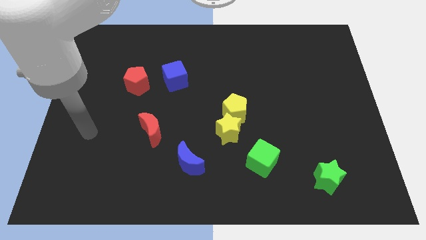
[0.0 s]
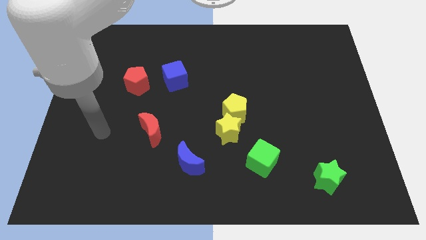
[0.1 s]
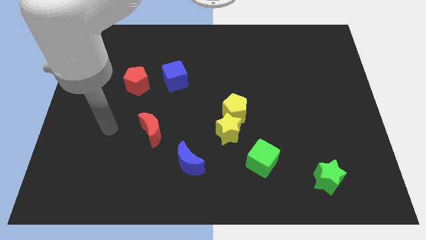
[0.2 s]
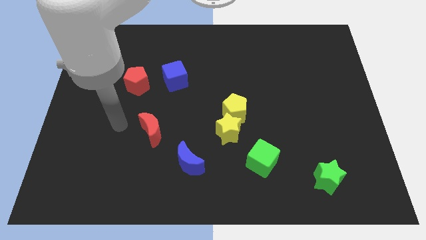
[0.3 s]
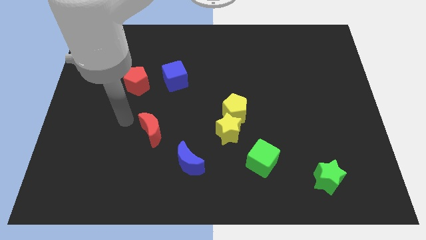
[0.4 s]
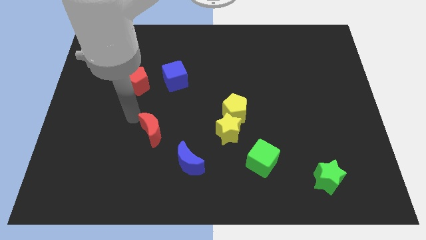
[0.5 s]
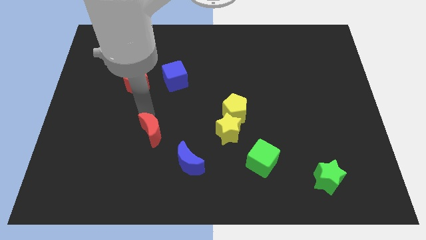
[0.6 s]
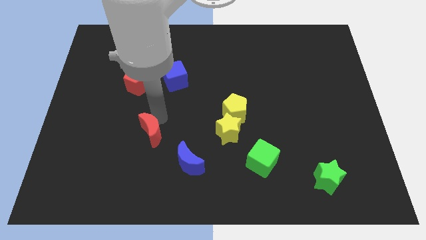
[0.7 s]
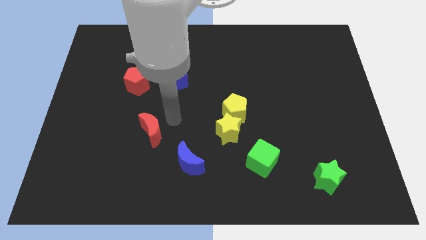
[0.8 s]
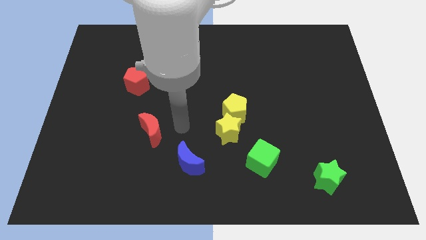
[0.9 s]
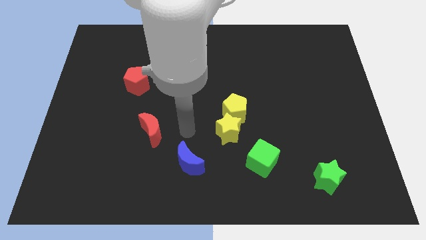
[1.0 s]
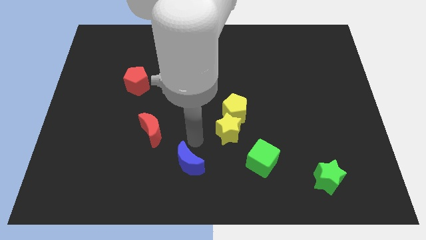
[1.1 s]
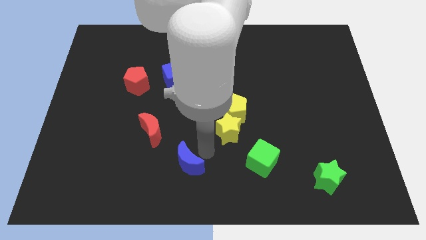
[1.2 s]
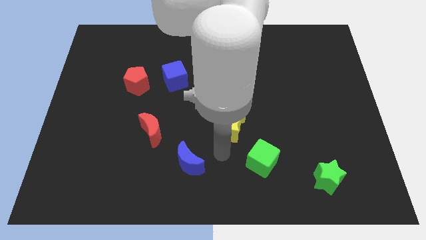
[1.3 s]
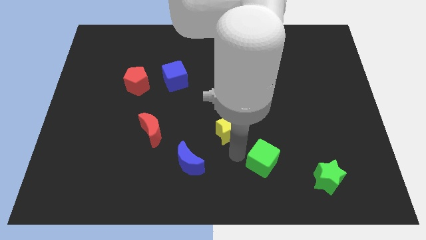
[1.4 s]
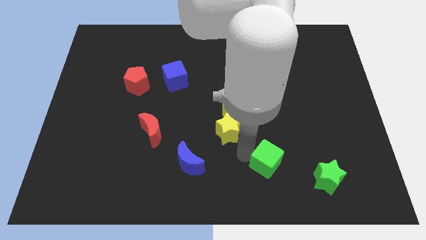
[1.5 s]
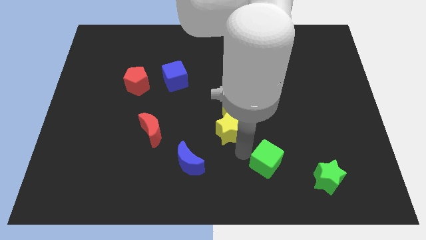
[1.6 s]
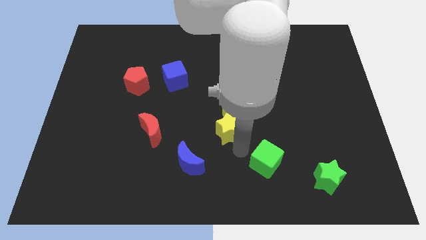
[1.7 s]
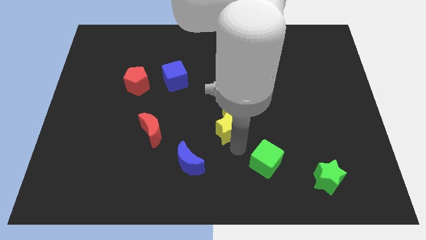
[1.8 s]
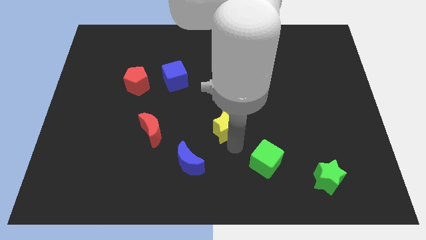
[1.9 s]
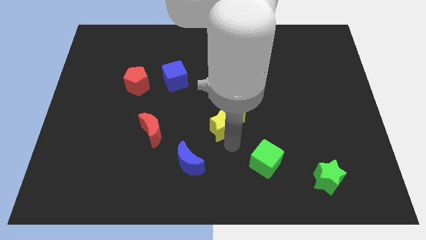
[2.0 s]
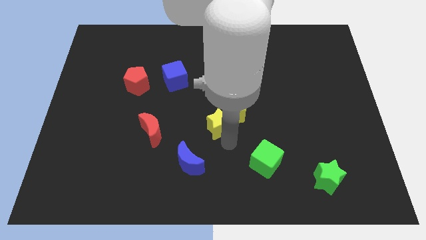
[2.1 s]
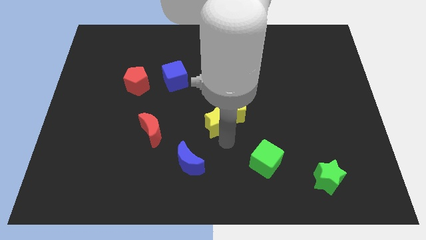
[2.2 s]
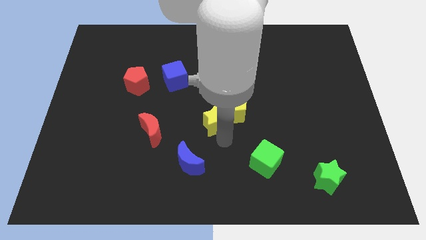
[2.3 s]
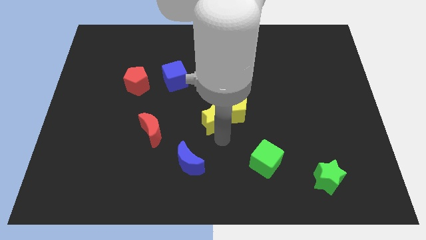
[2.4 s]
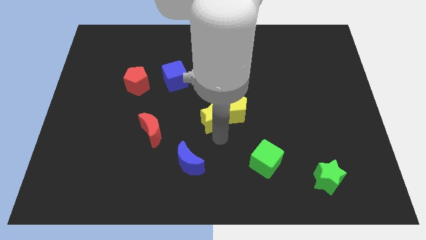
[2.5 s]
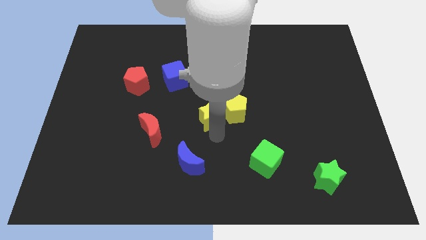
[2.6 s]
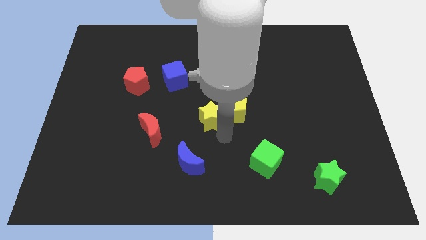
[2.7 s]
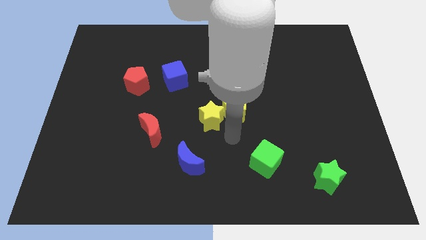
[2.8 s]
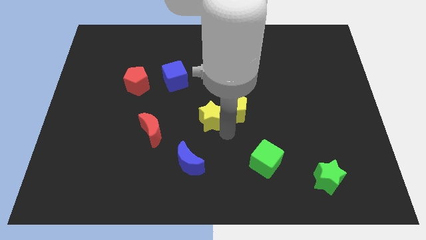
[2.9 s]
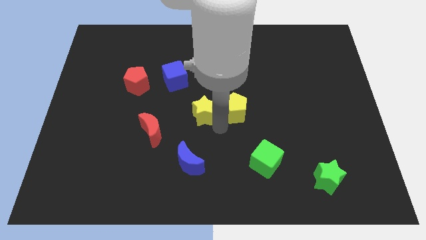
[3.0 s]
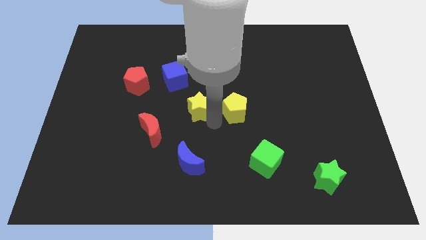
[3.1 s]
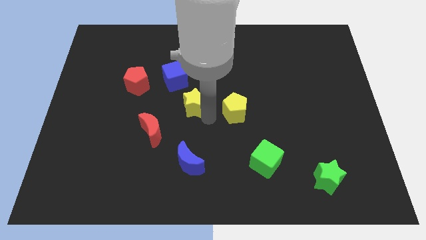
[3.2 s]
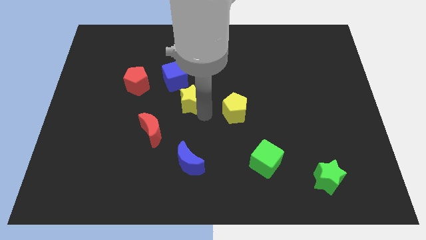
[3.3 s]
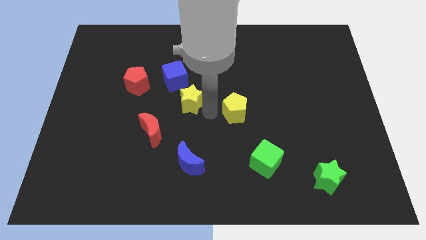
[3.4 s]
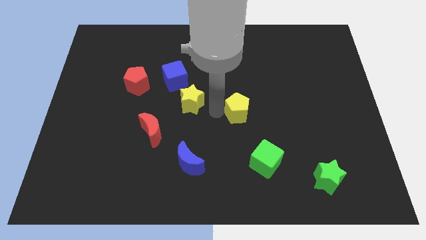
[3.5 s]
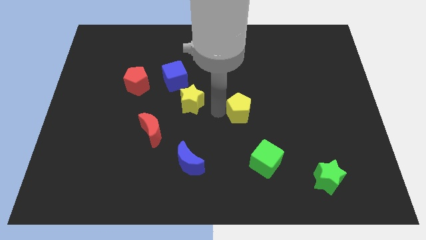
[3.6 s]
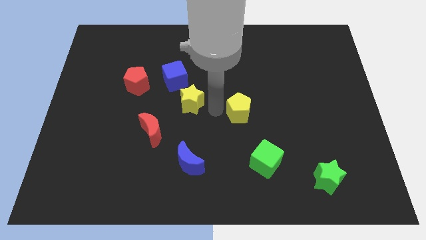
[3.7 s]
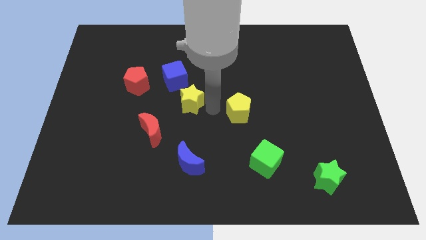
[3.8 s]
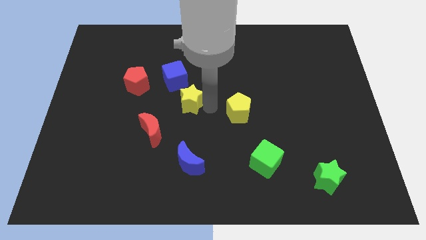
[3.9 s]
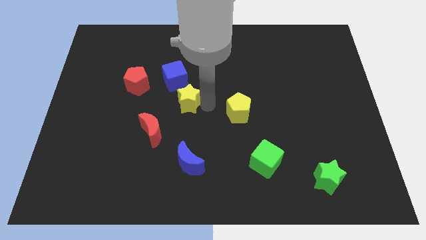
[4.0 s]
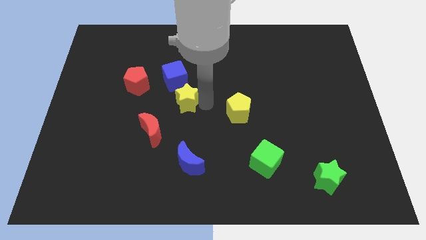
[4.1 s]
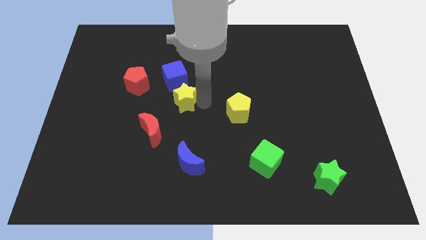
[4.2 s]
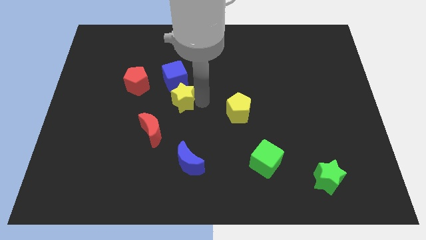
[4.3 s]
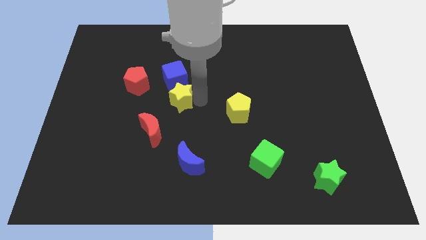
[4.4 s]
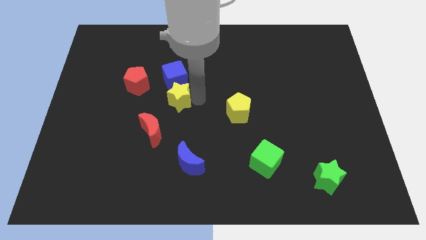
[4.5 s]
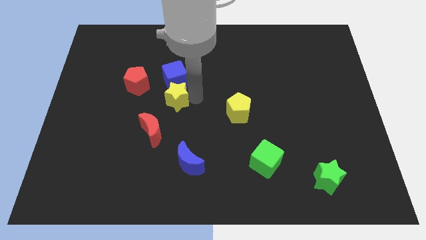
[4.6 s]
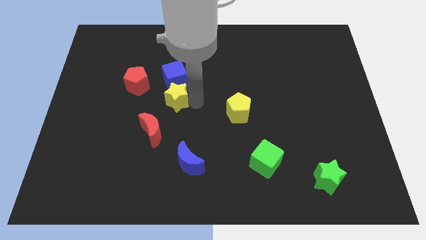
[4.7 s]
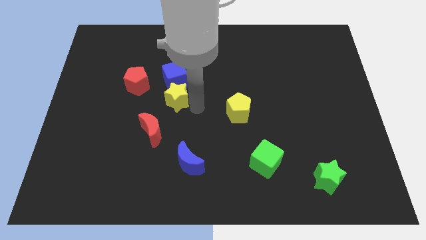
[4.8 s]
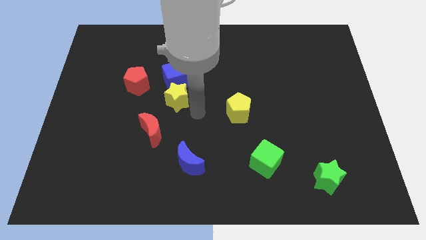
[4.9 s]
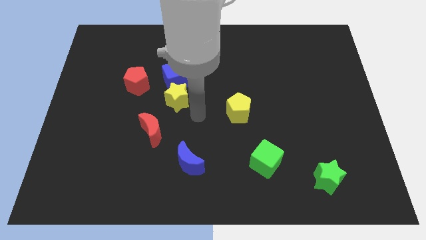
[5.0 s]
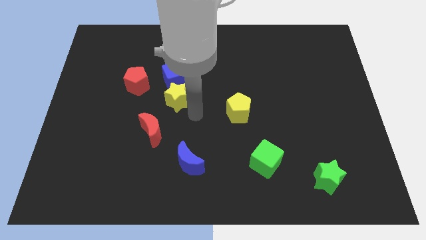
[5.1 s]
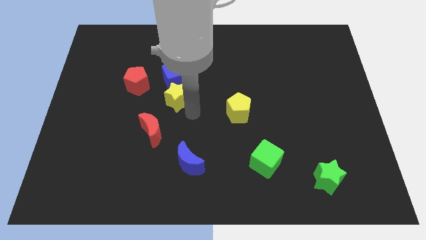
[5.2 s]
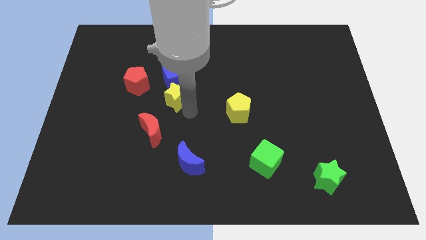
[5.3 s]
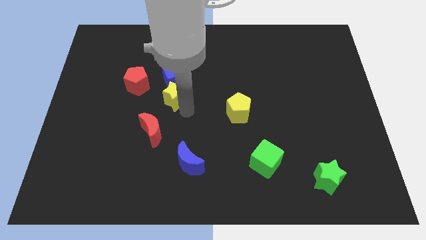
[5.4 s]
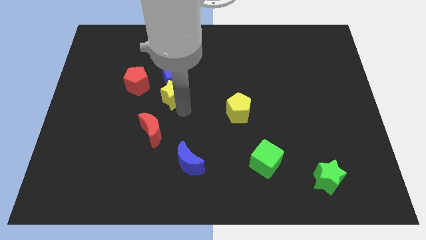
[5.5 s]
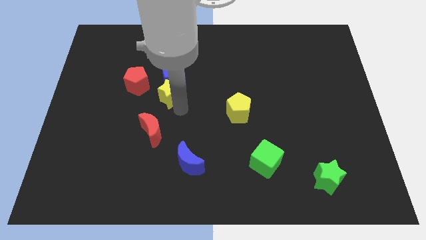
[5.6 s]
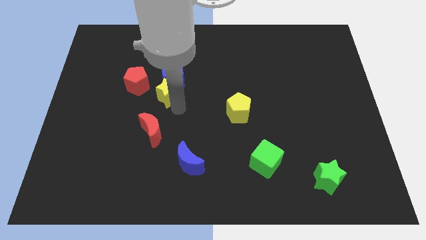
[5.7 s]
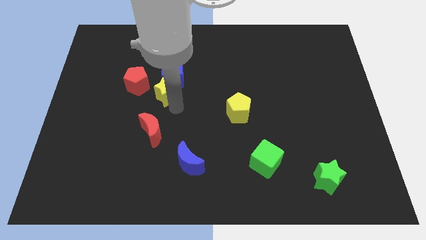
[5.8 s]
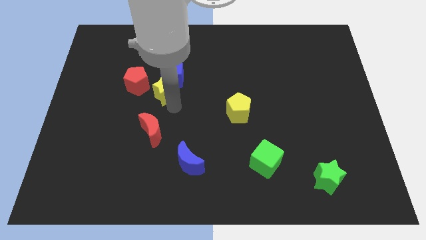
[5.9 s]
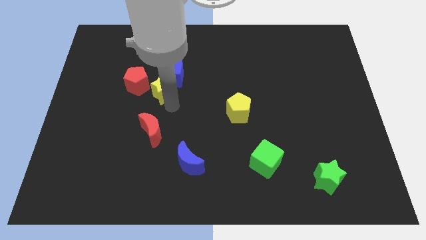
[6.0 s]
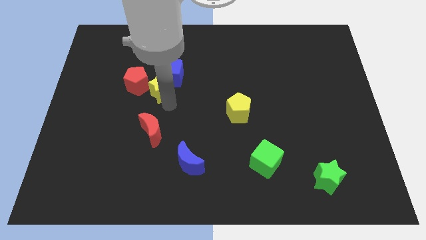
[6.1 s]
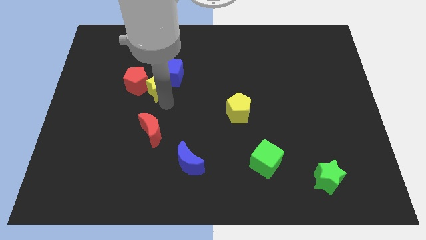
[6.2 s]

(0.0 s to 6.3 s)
move the yellow star diagonally up and to the left

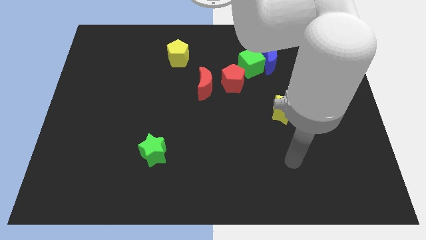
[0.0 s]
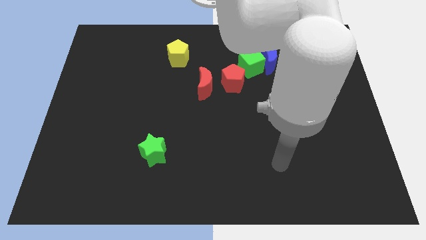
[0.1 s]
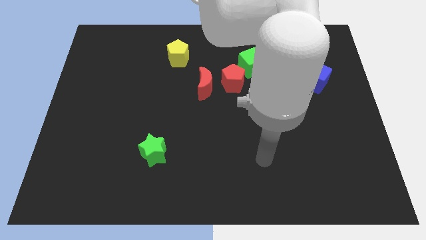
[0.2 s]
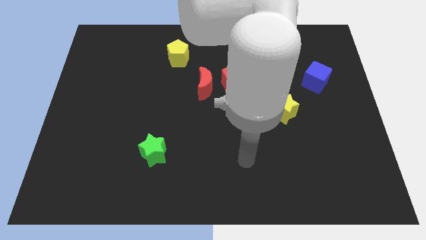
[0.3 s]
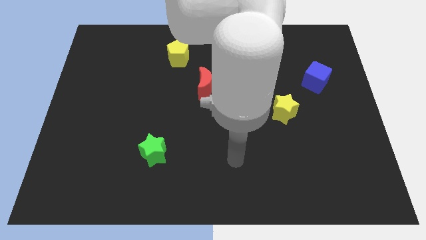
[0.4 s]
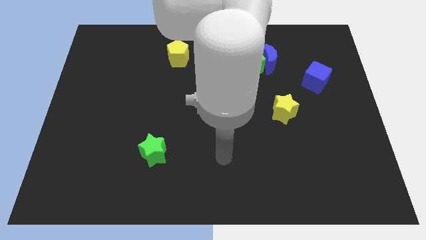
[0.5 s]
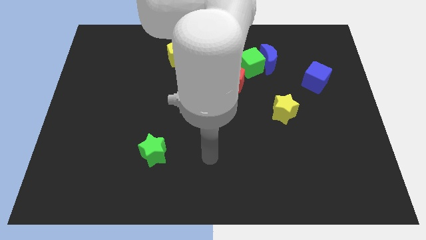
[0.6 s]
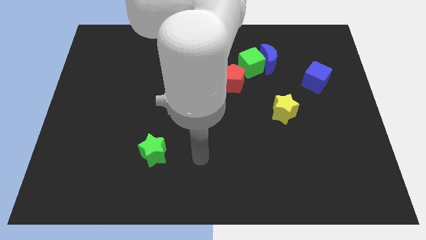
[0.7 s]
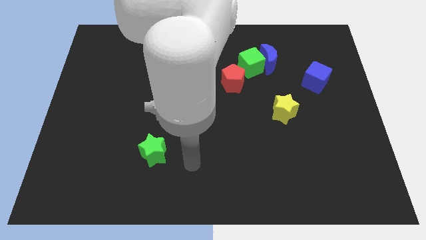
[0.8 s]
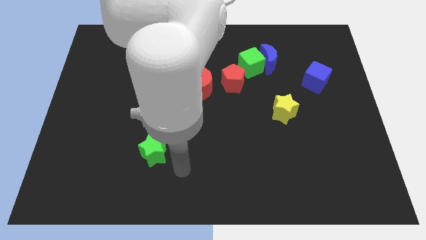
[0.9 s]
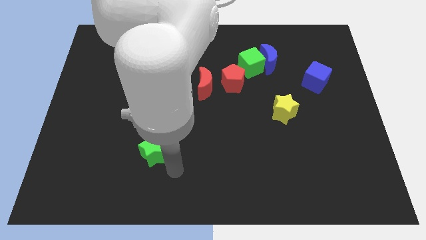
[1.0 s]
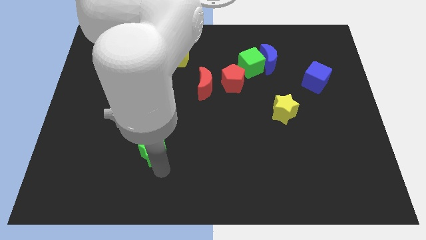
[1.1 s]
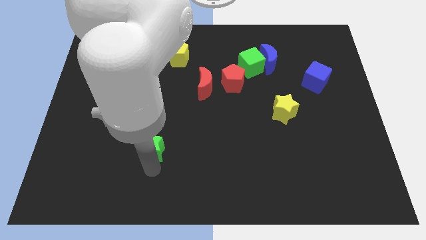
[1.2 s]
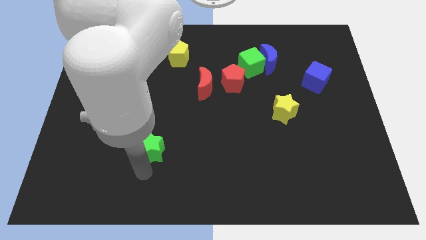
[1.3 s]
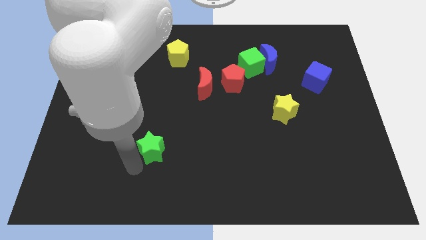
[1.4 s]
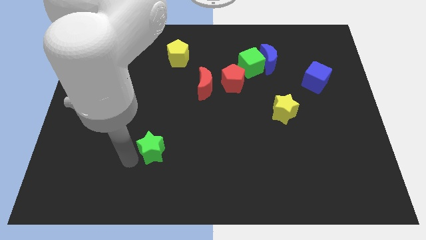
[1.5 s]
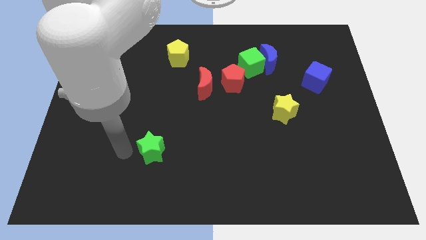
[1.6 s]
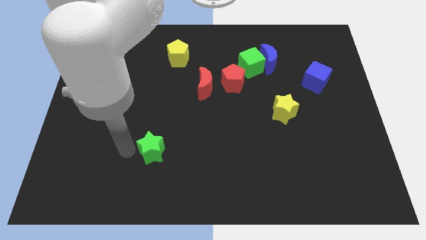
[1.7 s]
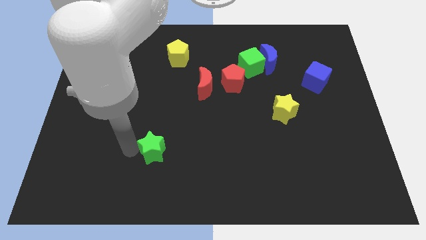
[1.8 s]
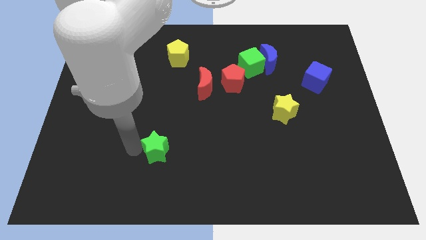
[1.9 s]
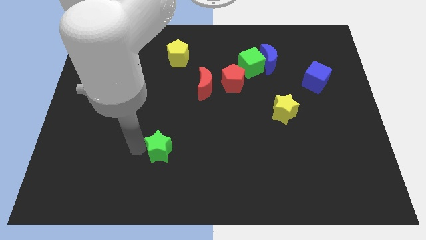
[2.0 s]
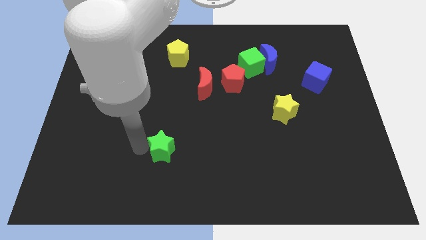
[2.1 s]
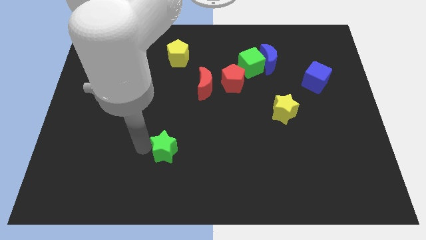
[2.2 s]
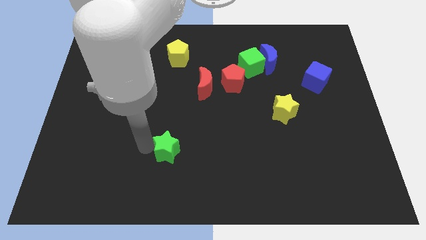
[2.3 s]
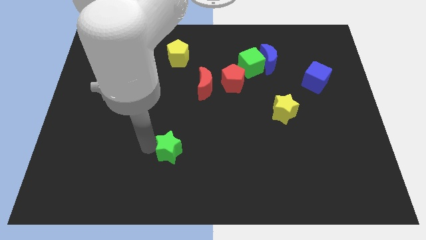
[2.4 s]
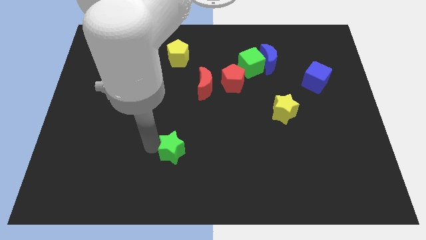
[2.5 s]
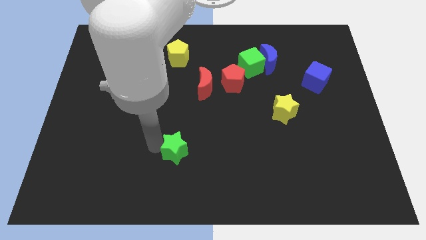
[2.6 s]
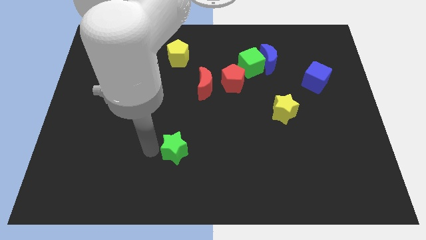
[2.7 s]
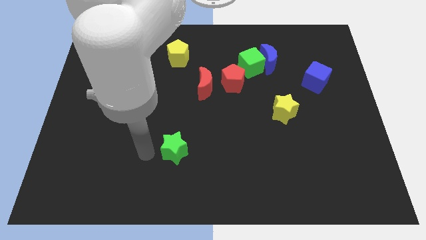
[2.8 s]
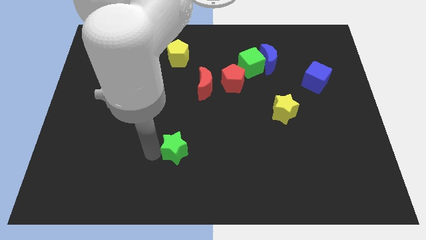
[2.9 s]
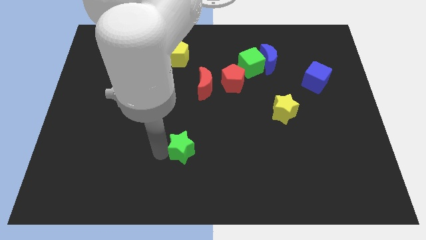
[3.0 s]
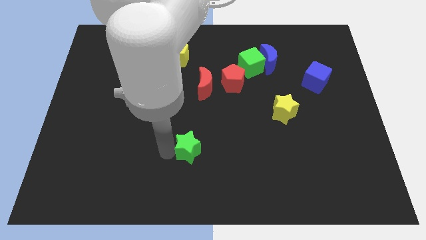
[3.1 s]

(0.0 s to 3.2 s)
push the green star a little to the right
